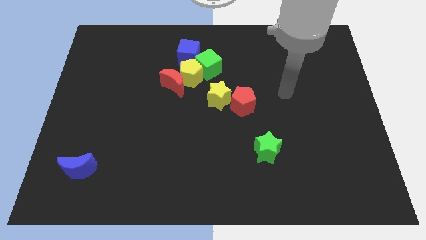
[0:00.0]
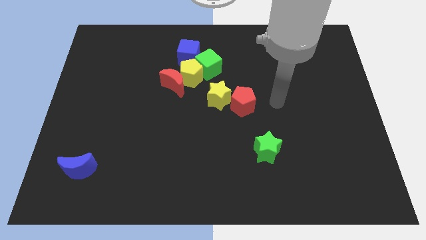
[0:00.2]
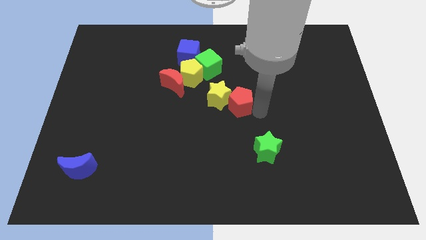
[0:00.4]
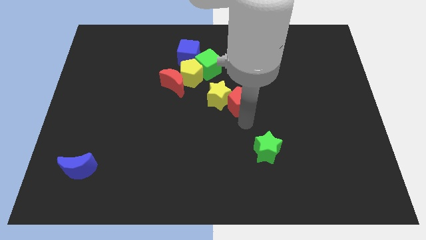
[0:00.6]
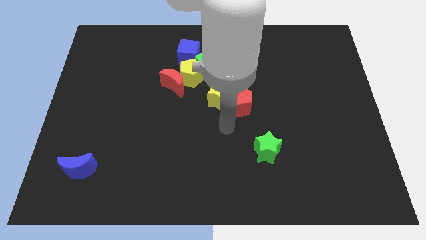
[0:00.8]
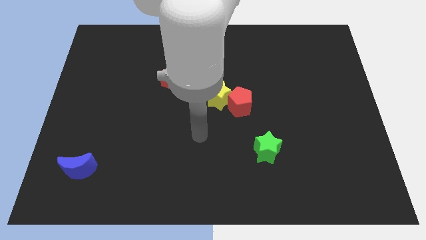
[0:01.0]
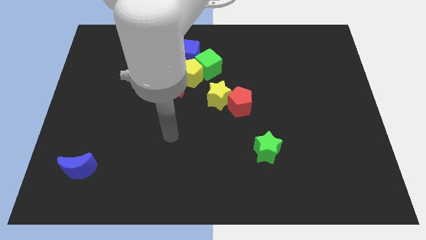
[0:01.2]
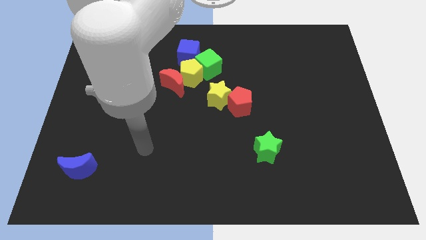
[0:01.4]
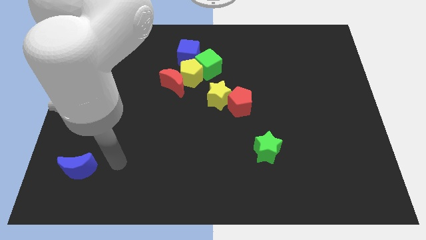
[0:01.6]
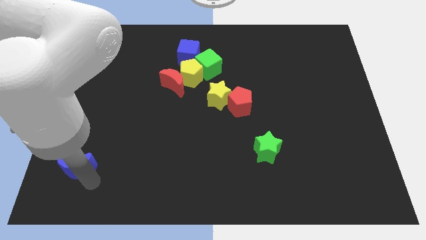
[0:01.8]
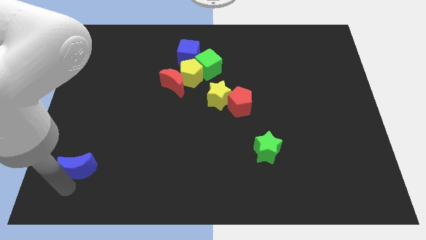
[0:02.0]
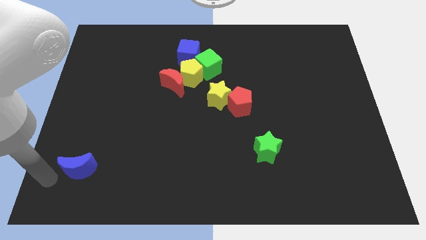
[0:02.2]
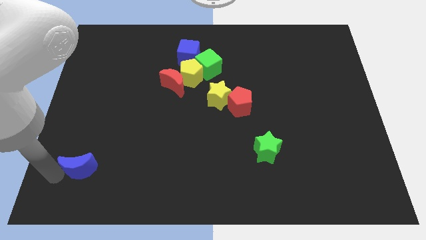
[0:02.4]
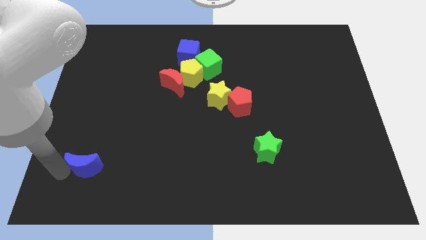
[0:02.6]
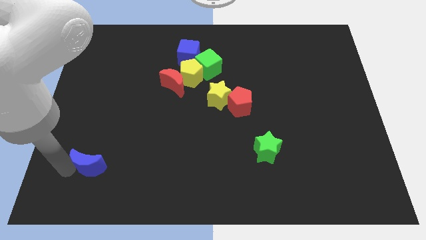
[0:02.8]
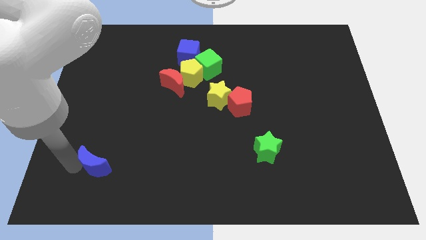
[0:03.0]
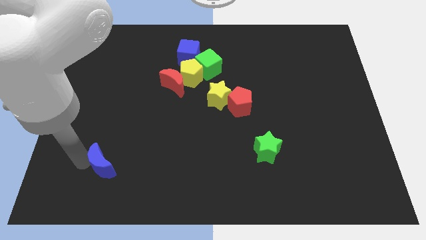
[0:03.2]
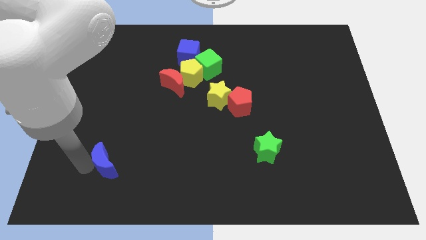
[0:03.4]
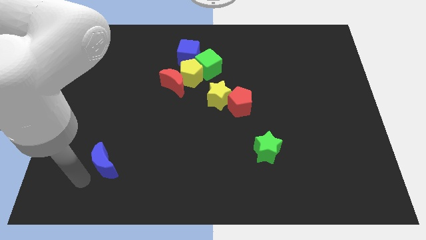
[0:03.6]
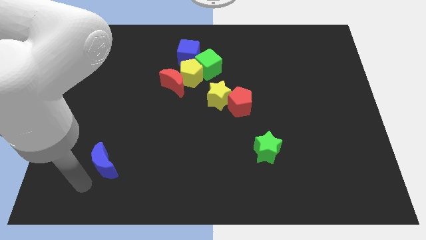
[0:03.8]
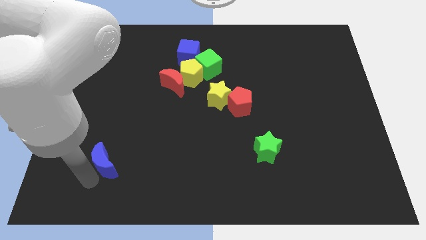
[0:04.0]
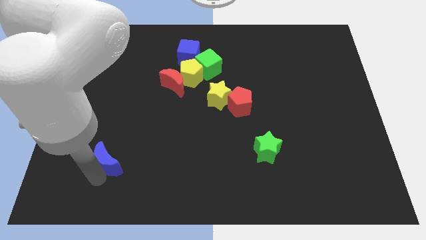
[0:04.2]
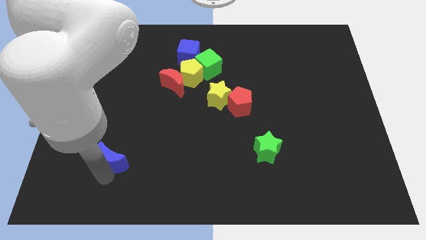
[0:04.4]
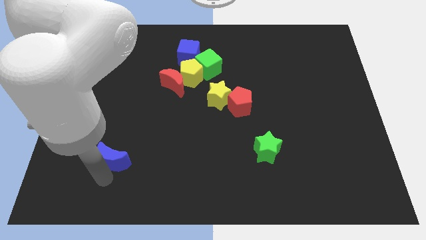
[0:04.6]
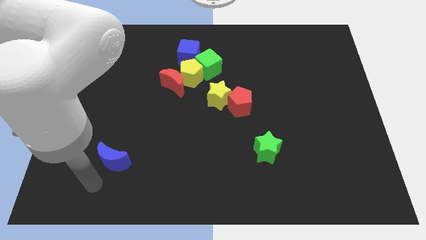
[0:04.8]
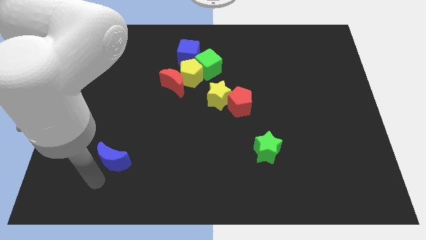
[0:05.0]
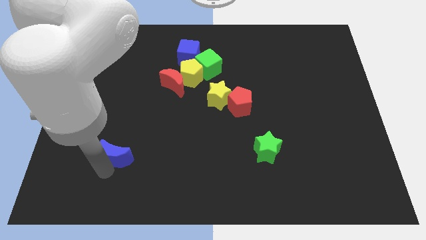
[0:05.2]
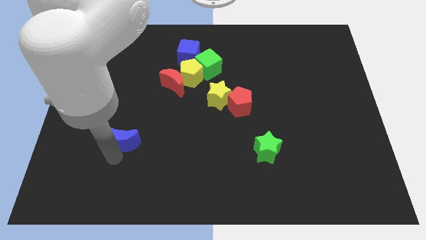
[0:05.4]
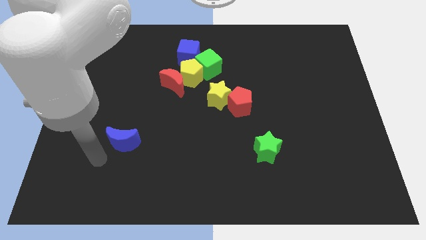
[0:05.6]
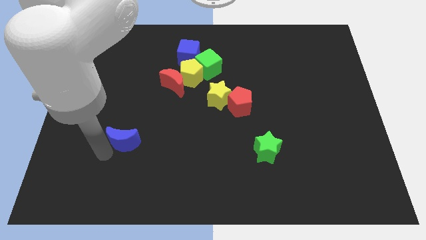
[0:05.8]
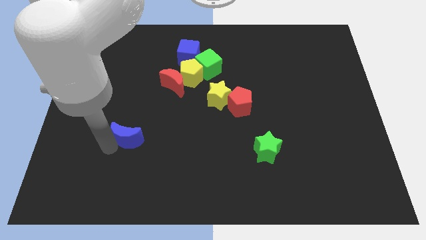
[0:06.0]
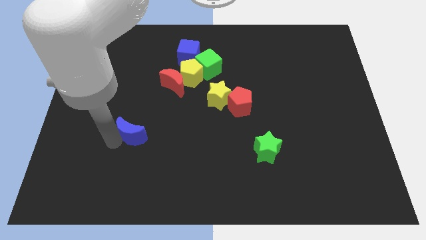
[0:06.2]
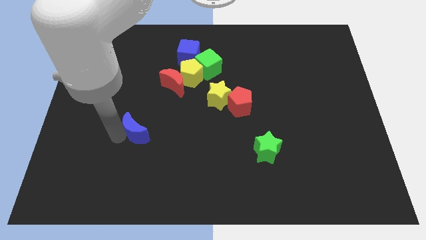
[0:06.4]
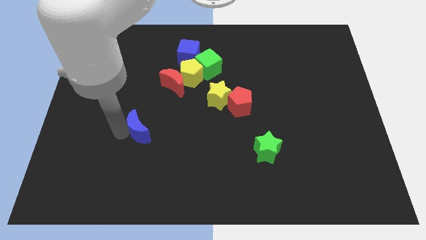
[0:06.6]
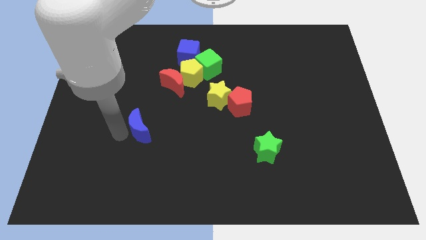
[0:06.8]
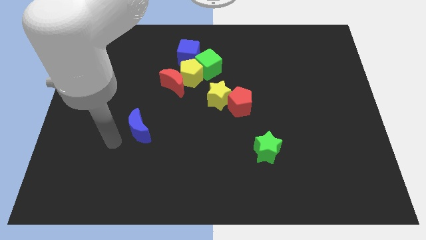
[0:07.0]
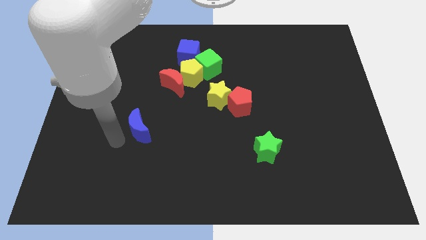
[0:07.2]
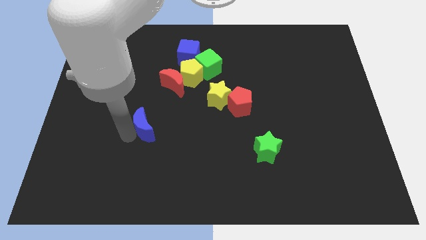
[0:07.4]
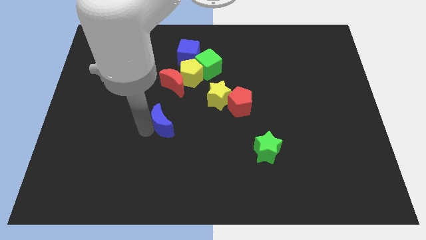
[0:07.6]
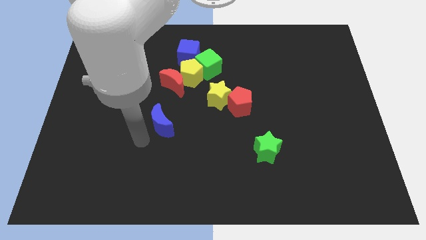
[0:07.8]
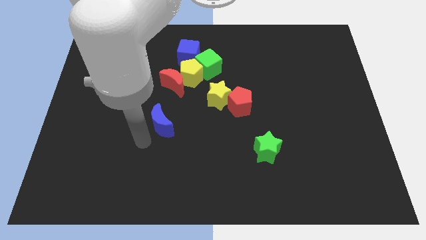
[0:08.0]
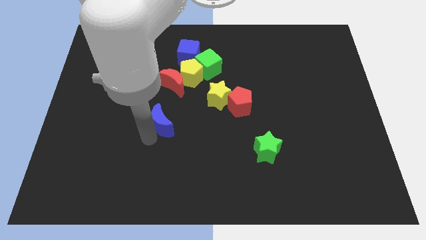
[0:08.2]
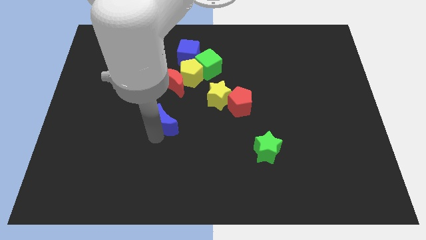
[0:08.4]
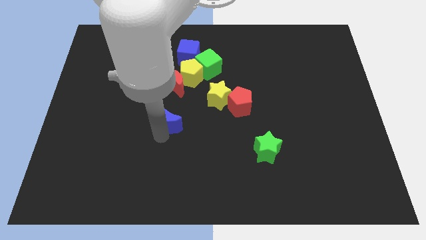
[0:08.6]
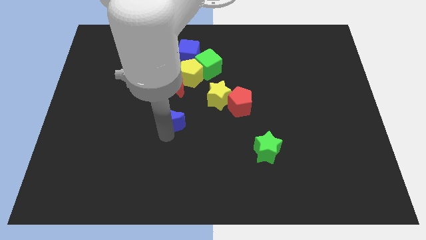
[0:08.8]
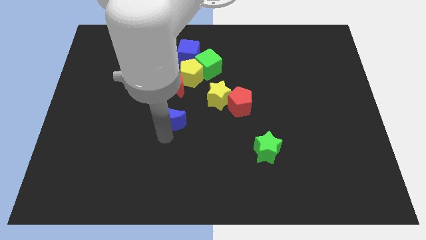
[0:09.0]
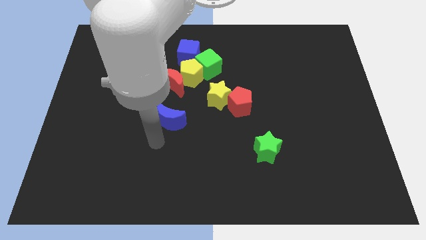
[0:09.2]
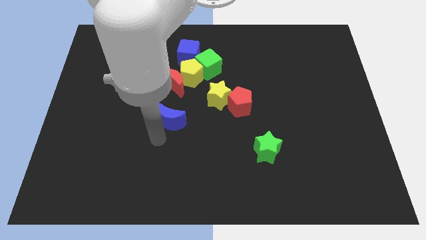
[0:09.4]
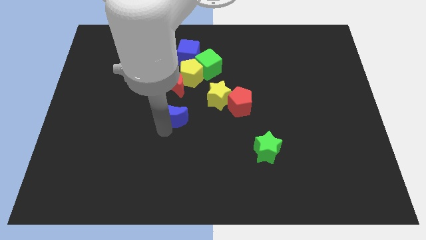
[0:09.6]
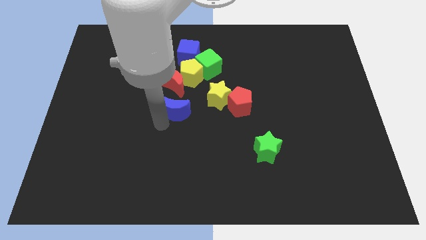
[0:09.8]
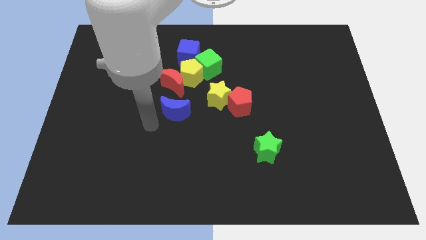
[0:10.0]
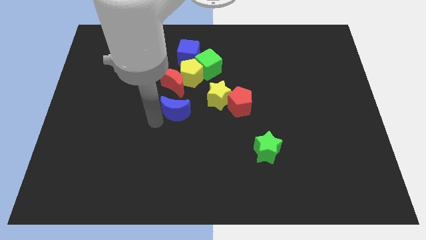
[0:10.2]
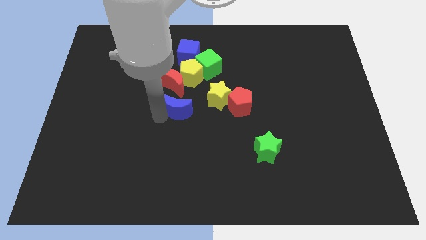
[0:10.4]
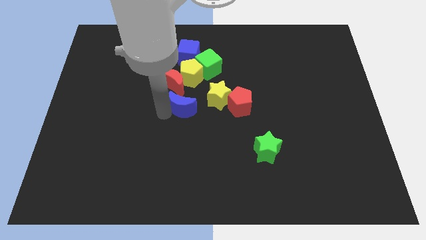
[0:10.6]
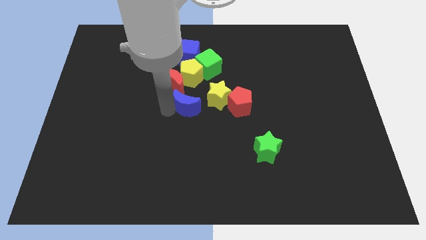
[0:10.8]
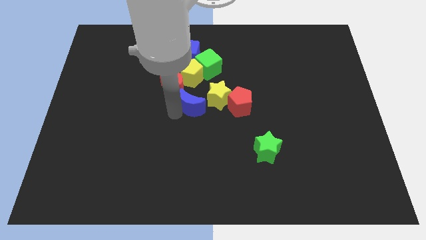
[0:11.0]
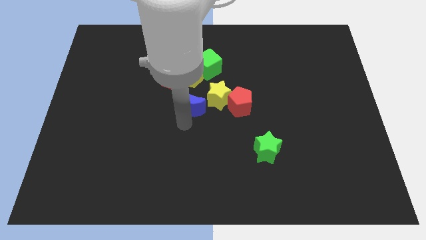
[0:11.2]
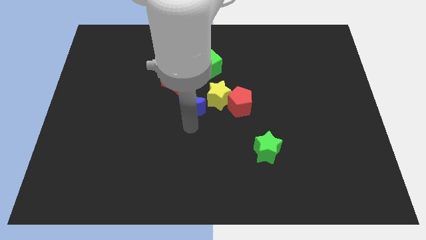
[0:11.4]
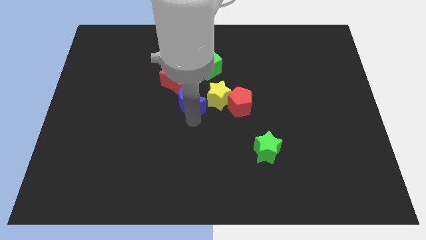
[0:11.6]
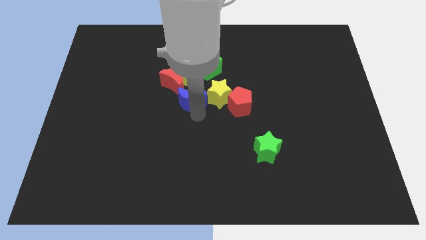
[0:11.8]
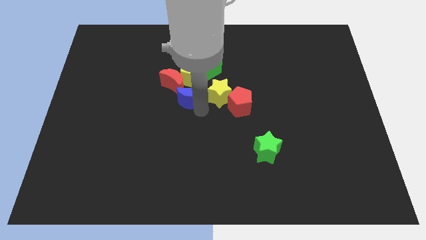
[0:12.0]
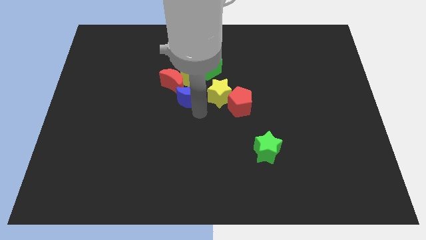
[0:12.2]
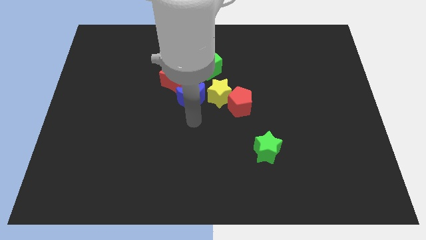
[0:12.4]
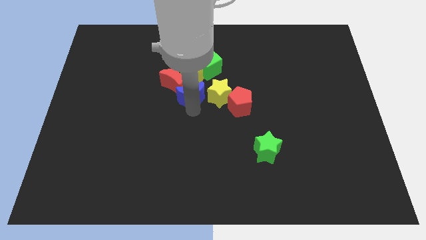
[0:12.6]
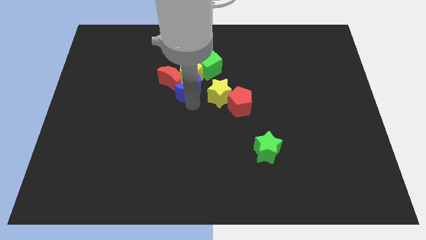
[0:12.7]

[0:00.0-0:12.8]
move the blue moon next to the yellow pentagon

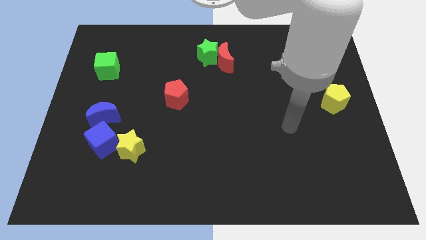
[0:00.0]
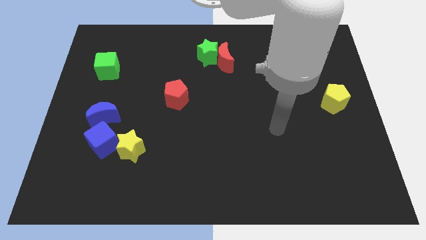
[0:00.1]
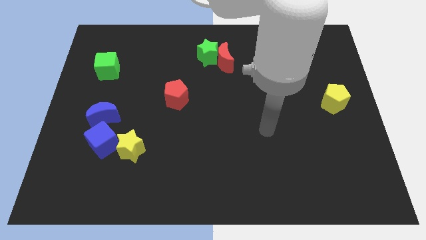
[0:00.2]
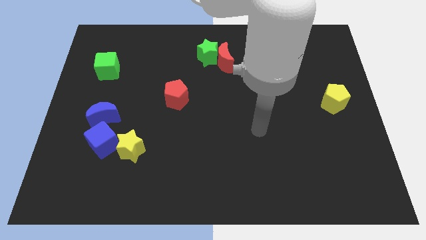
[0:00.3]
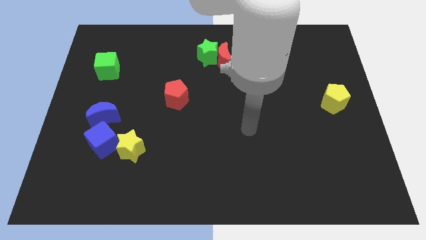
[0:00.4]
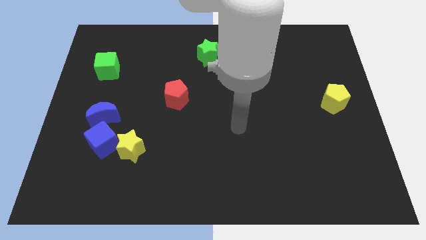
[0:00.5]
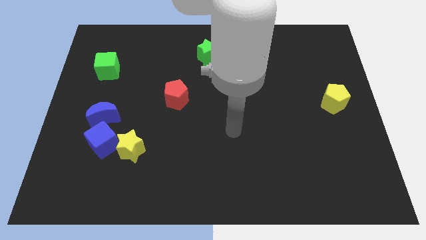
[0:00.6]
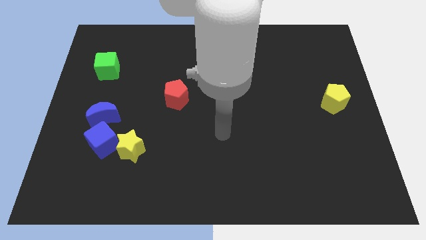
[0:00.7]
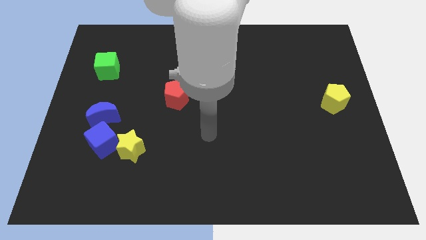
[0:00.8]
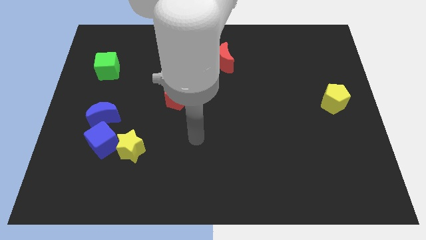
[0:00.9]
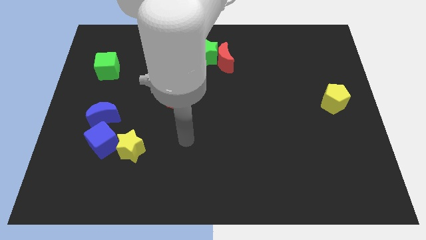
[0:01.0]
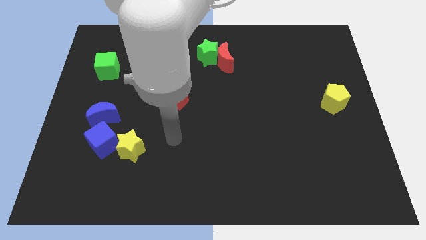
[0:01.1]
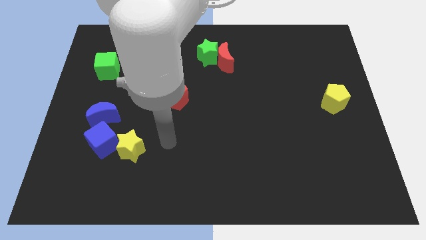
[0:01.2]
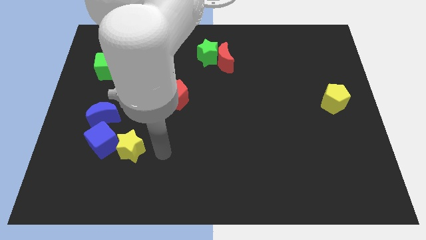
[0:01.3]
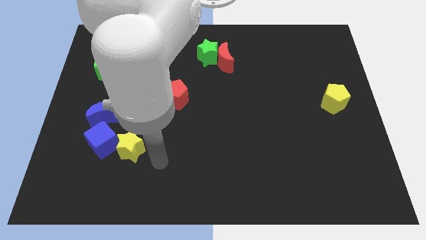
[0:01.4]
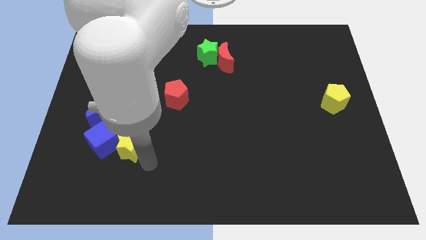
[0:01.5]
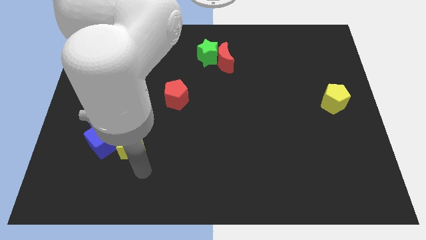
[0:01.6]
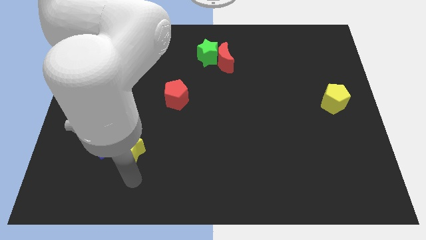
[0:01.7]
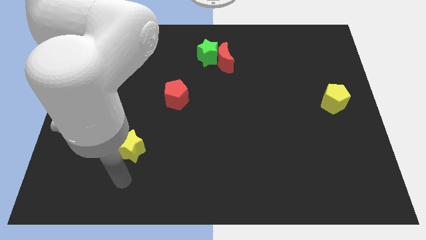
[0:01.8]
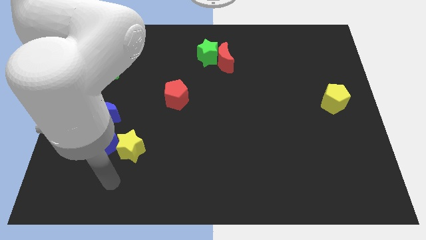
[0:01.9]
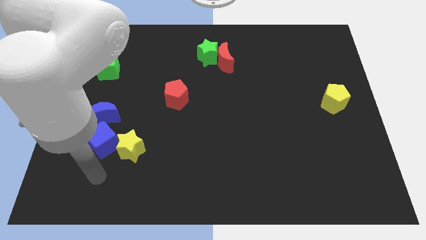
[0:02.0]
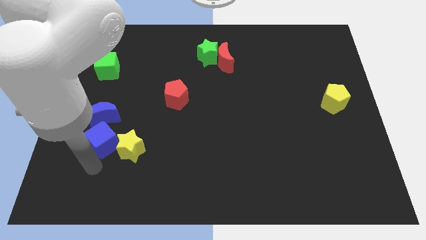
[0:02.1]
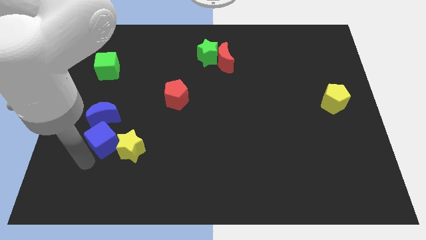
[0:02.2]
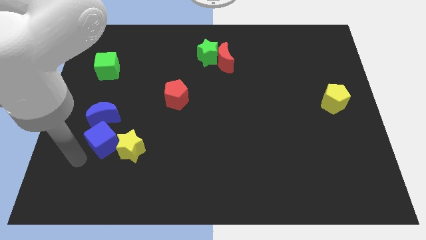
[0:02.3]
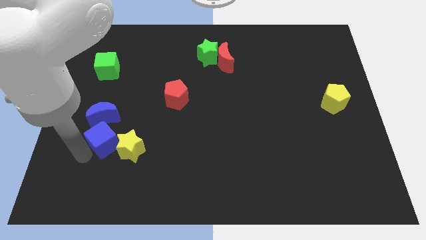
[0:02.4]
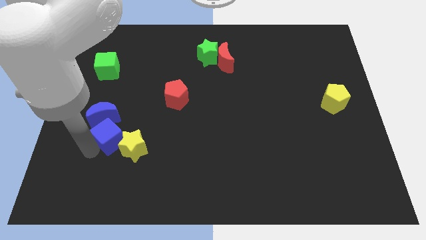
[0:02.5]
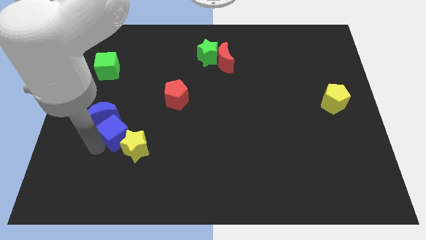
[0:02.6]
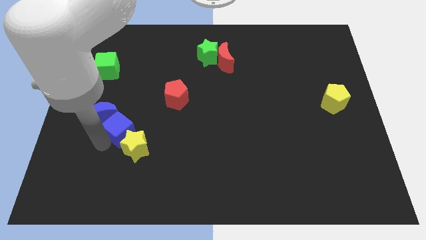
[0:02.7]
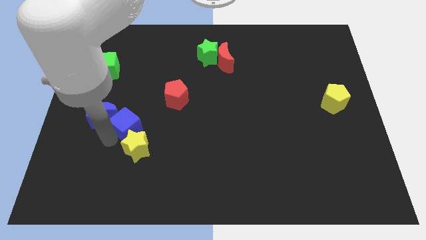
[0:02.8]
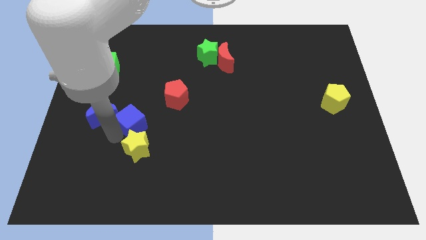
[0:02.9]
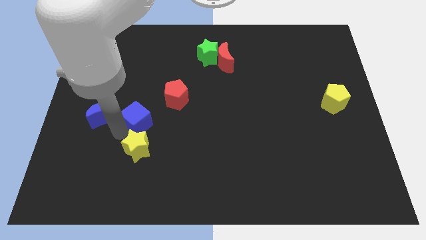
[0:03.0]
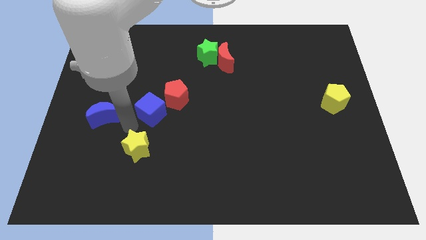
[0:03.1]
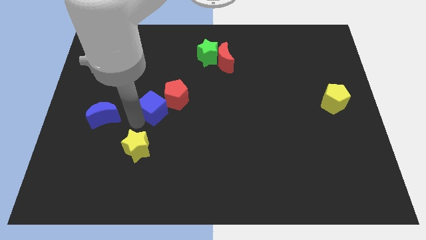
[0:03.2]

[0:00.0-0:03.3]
slide the blue cube close to the red pentagon
